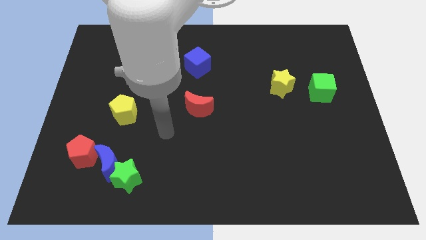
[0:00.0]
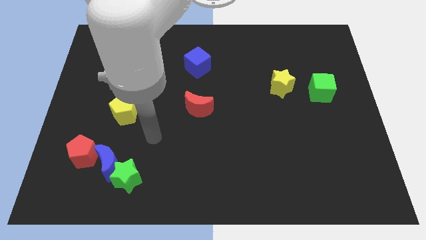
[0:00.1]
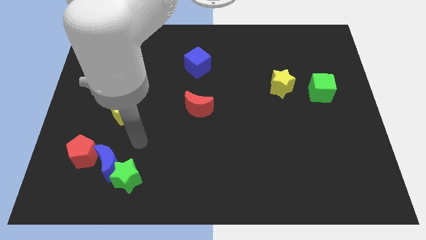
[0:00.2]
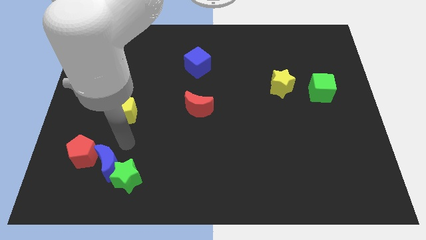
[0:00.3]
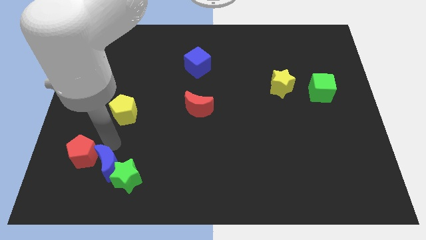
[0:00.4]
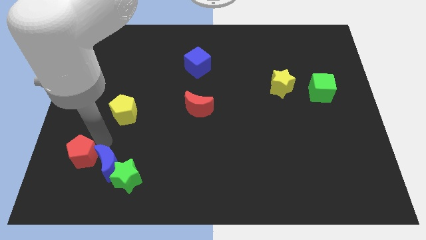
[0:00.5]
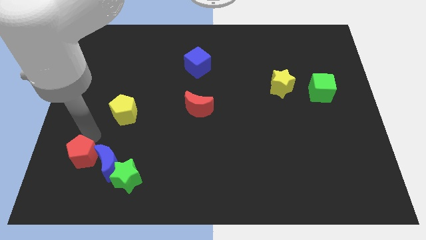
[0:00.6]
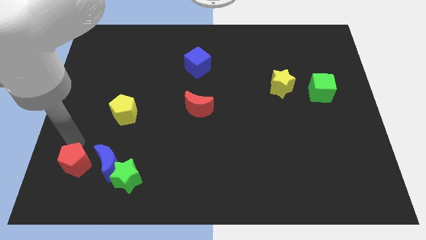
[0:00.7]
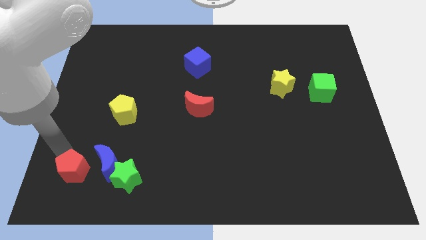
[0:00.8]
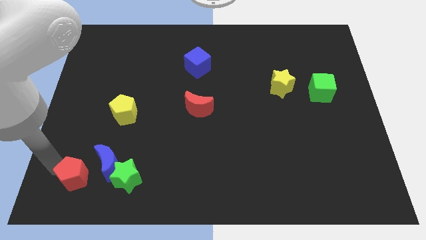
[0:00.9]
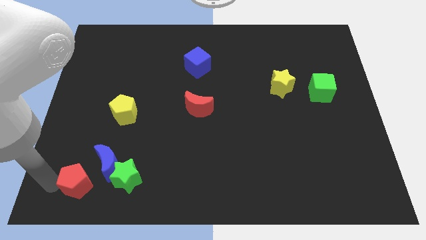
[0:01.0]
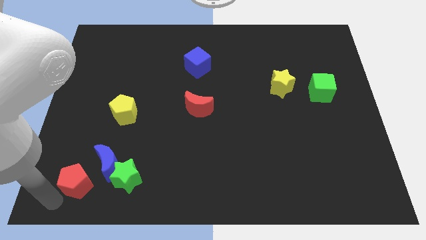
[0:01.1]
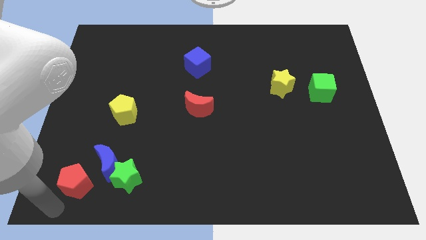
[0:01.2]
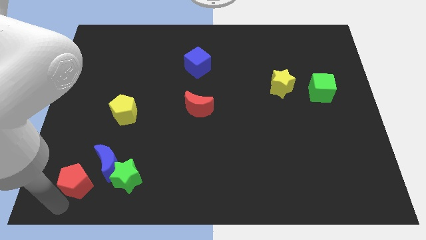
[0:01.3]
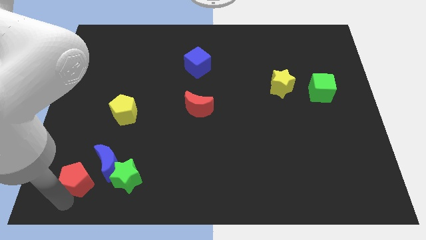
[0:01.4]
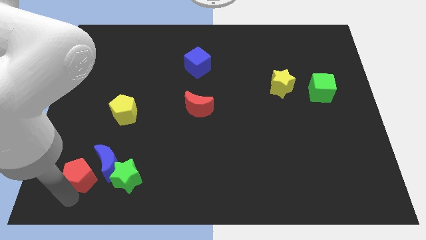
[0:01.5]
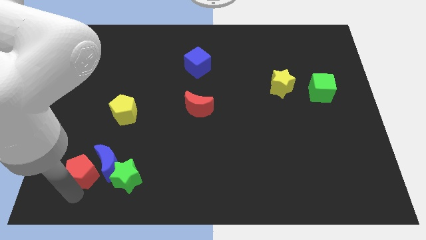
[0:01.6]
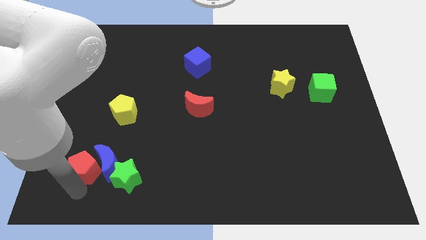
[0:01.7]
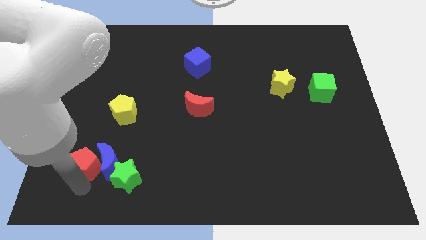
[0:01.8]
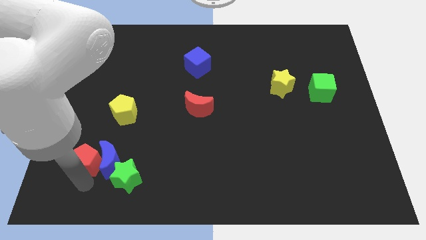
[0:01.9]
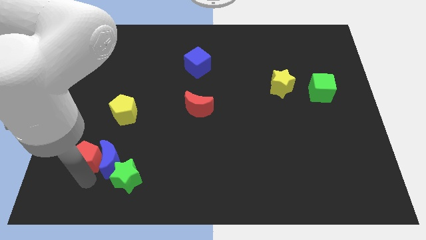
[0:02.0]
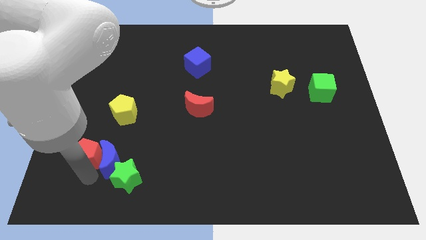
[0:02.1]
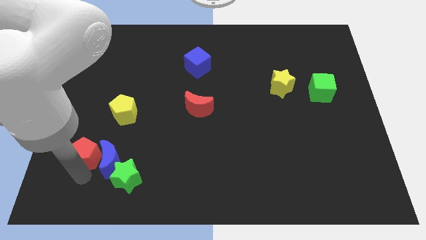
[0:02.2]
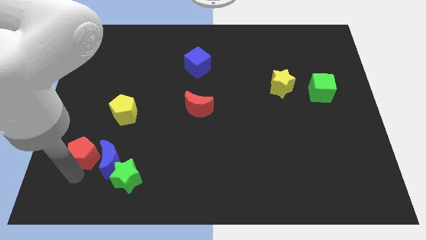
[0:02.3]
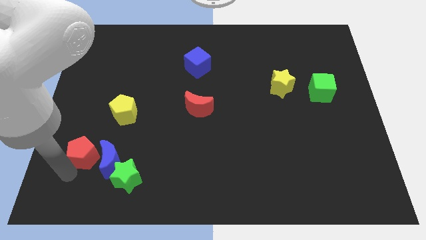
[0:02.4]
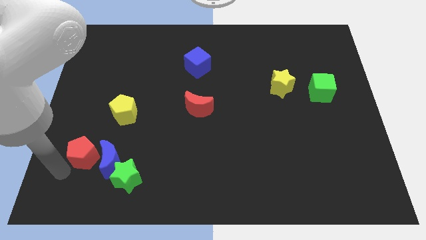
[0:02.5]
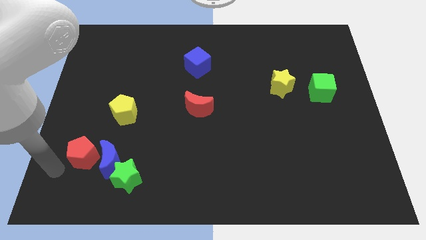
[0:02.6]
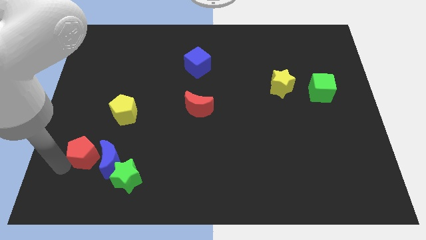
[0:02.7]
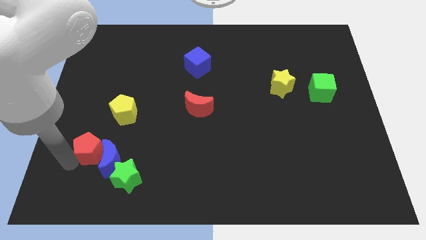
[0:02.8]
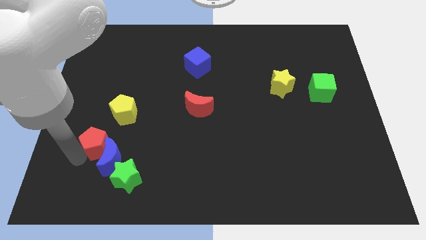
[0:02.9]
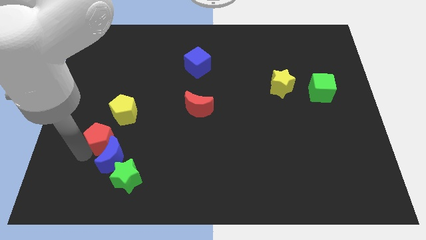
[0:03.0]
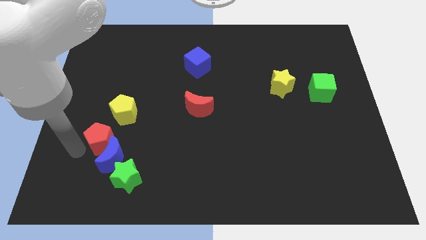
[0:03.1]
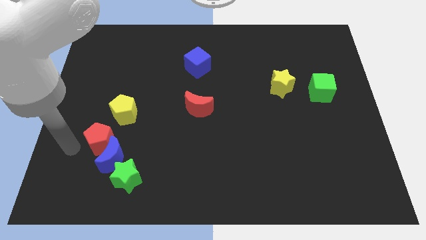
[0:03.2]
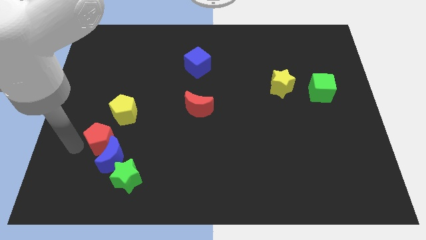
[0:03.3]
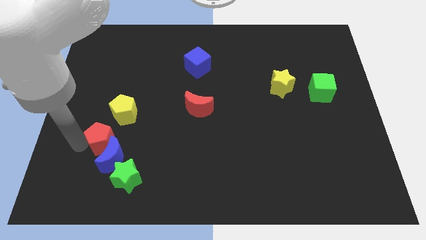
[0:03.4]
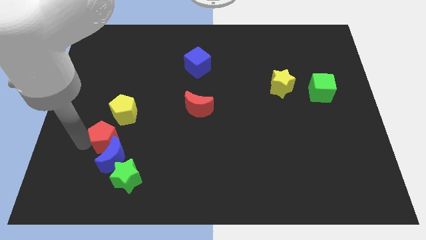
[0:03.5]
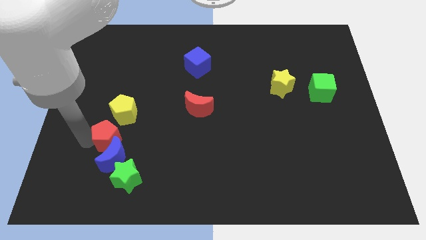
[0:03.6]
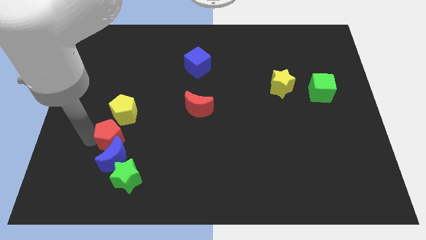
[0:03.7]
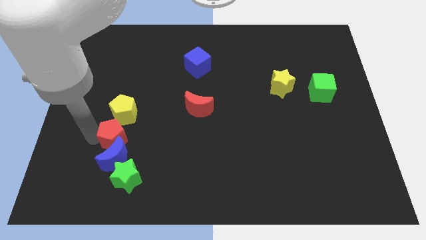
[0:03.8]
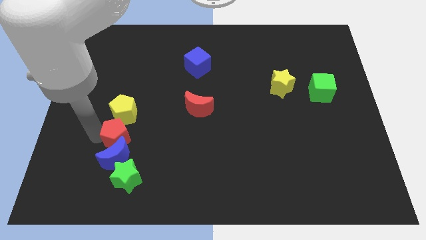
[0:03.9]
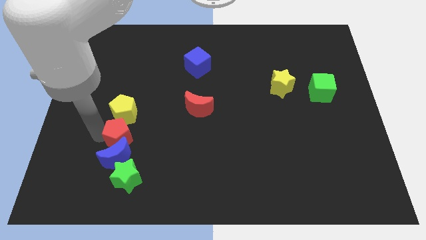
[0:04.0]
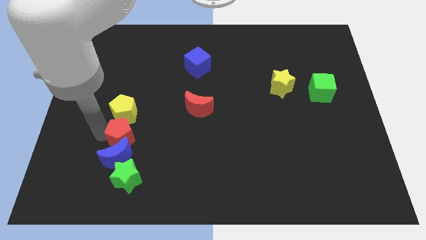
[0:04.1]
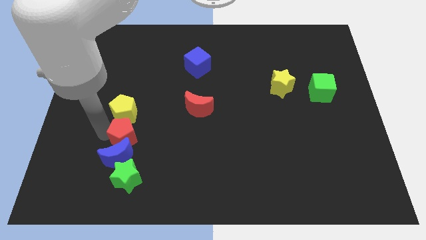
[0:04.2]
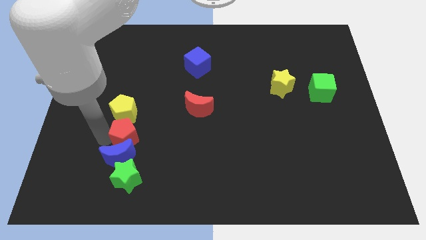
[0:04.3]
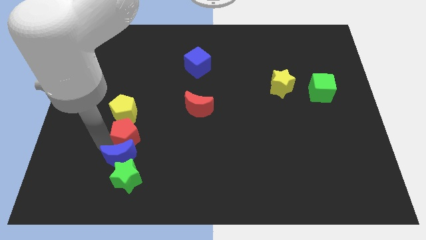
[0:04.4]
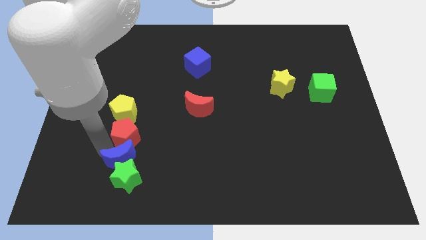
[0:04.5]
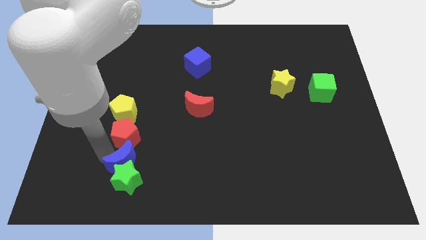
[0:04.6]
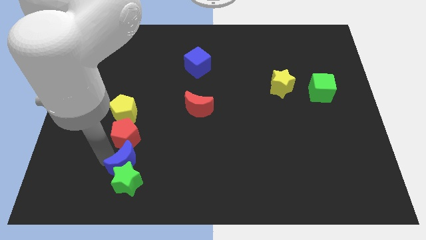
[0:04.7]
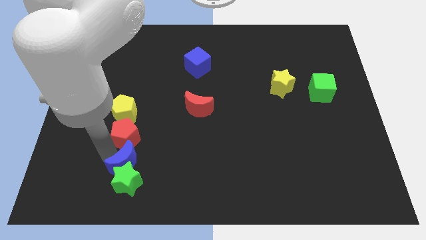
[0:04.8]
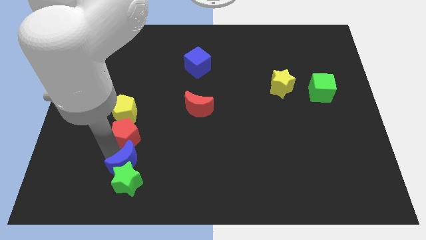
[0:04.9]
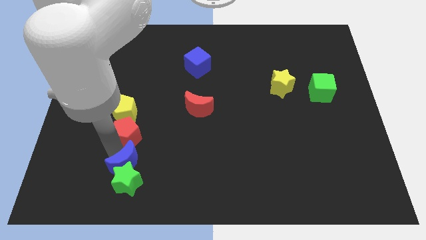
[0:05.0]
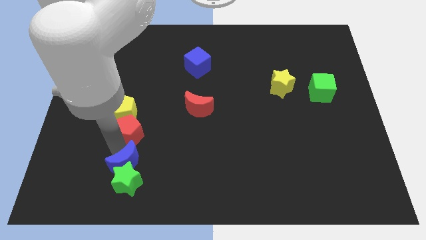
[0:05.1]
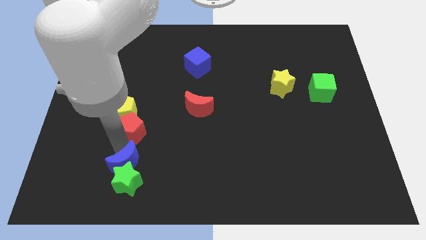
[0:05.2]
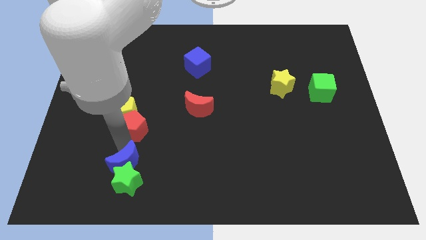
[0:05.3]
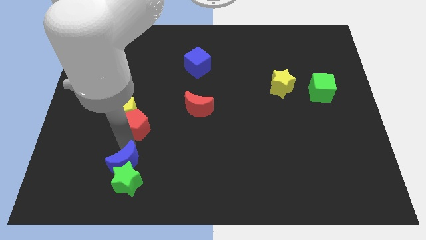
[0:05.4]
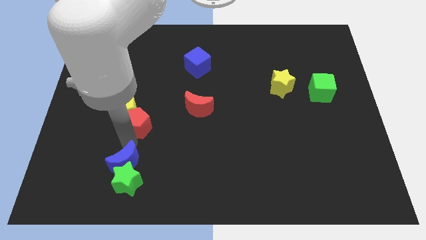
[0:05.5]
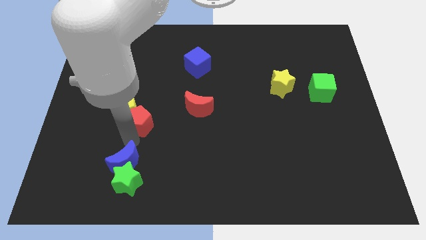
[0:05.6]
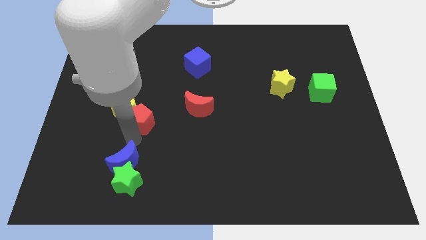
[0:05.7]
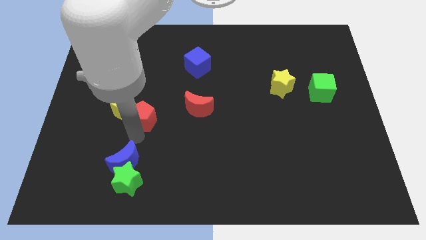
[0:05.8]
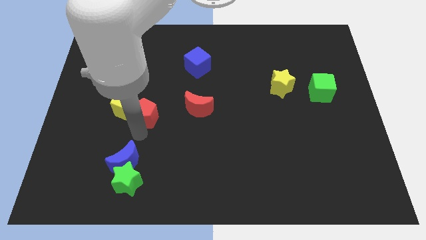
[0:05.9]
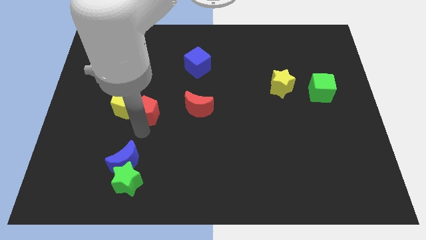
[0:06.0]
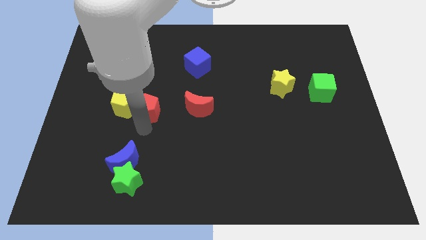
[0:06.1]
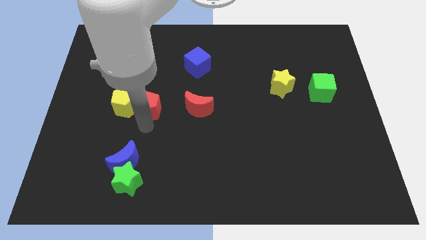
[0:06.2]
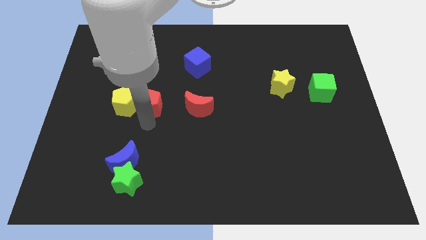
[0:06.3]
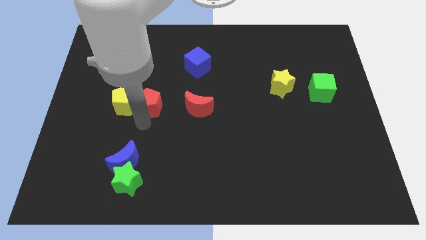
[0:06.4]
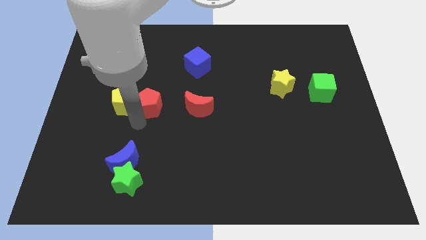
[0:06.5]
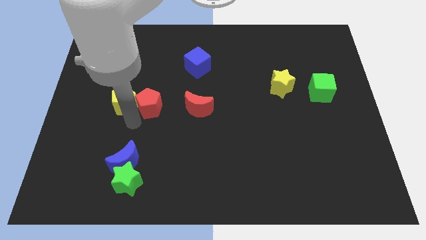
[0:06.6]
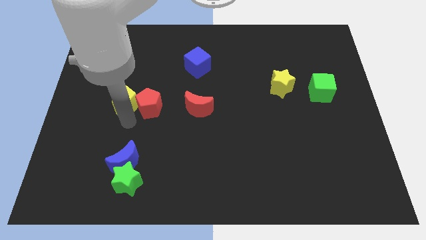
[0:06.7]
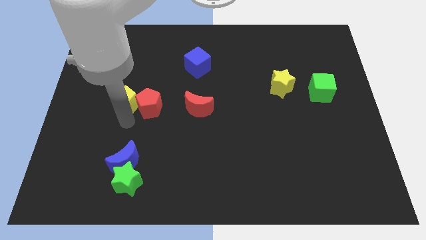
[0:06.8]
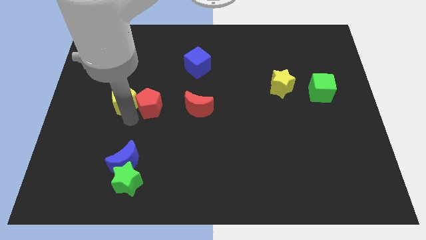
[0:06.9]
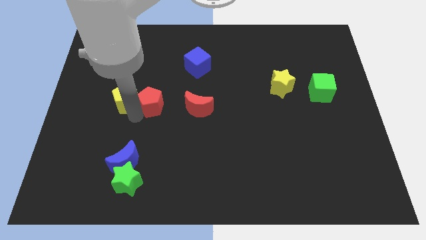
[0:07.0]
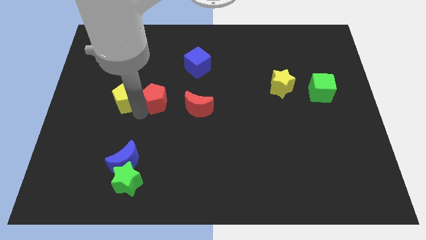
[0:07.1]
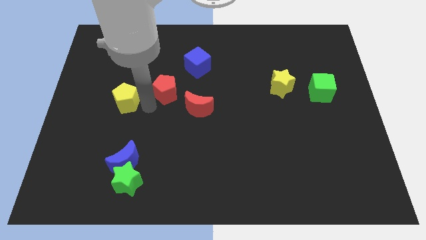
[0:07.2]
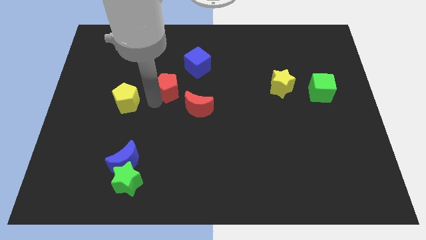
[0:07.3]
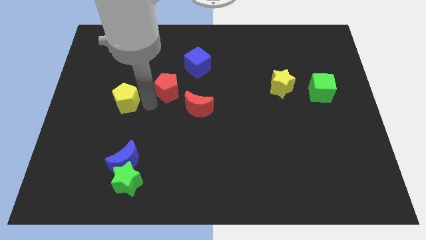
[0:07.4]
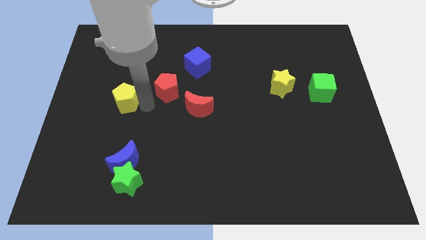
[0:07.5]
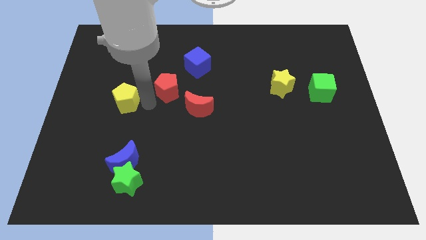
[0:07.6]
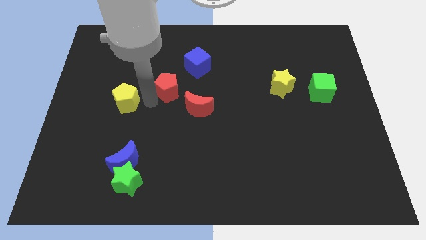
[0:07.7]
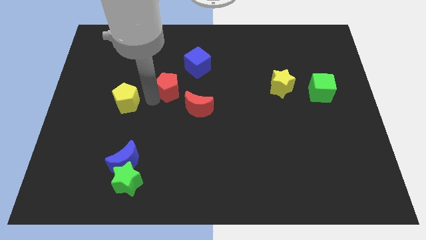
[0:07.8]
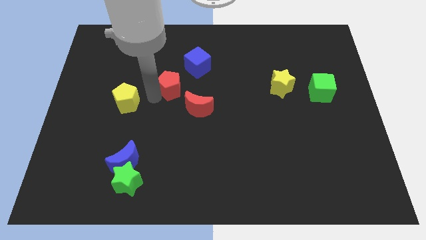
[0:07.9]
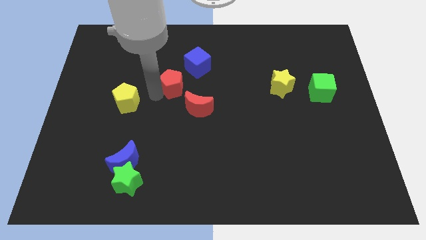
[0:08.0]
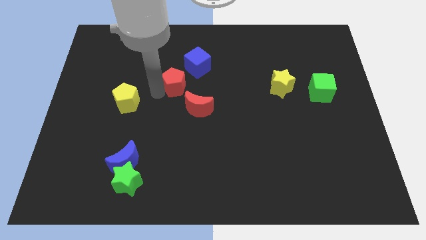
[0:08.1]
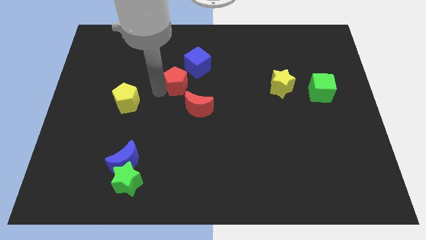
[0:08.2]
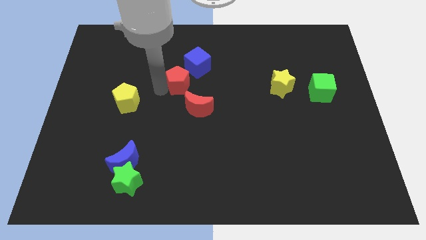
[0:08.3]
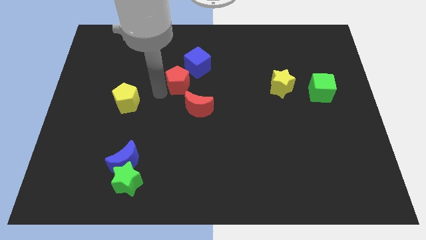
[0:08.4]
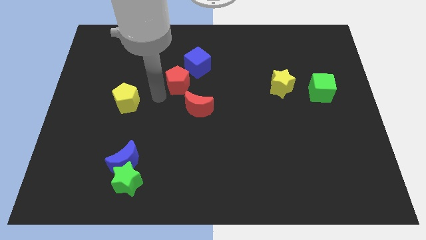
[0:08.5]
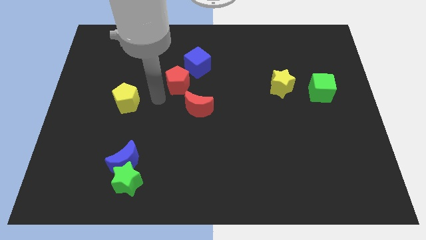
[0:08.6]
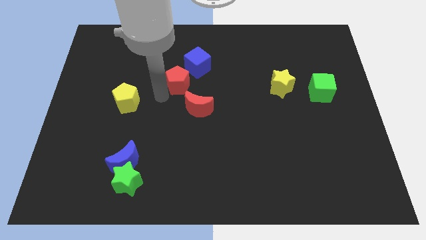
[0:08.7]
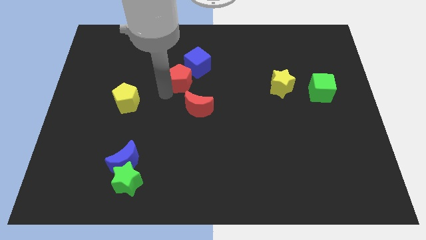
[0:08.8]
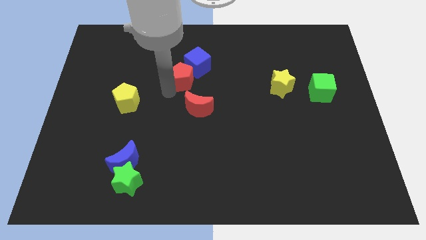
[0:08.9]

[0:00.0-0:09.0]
push the red pentagon to the blue cube
